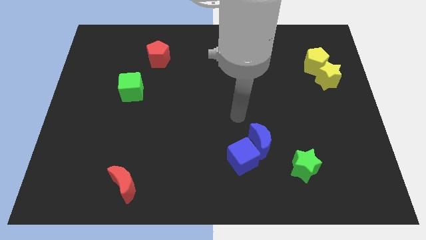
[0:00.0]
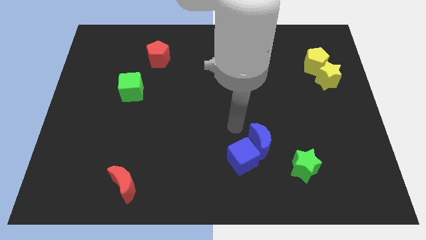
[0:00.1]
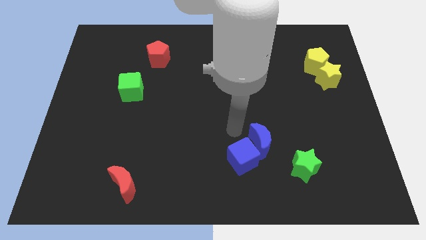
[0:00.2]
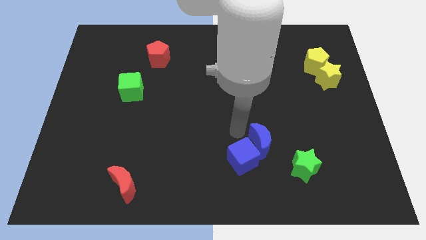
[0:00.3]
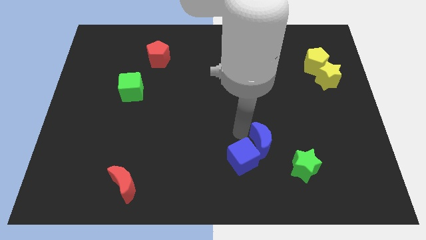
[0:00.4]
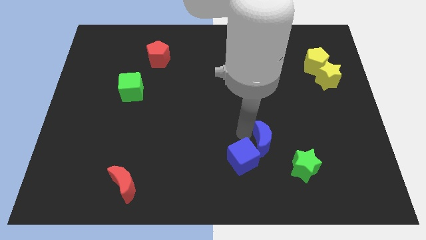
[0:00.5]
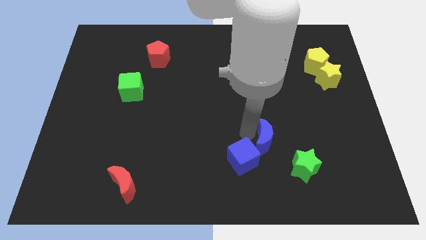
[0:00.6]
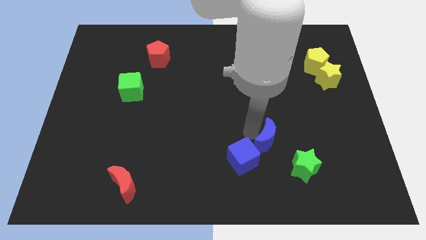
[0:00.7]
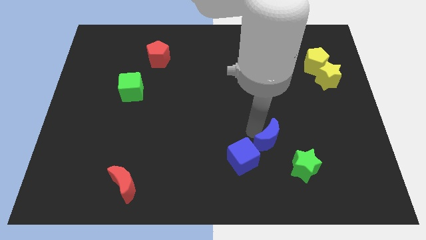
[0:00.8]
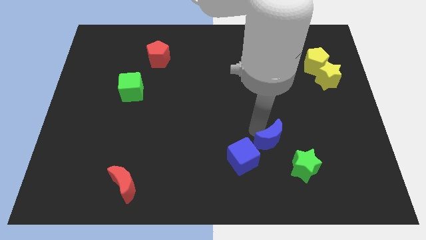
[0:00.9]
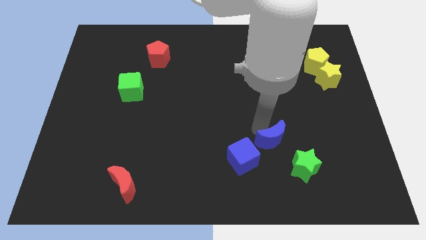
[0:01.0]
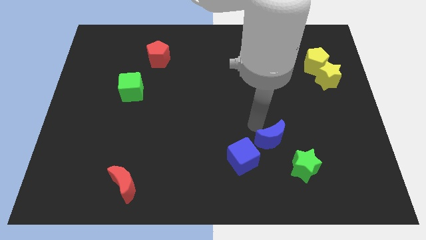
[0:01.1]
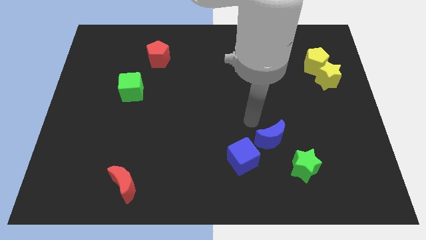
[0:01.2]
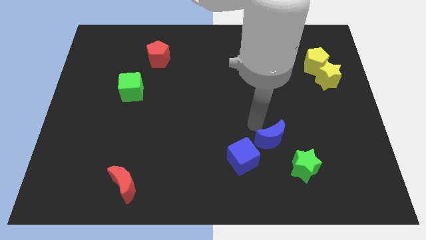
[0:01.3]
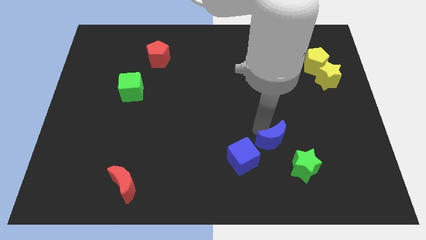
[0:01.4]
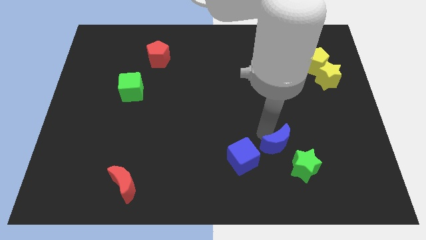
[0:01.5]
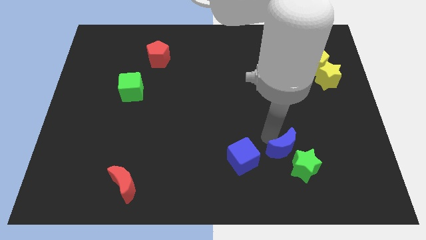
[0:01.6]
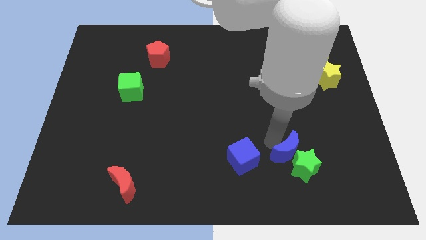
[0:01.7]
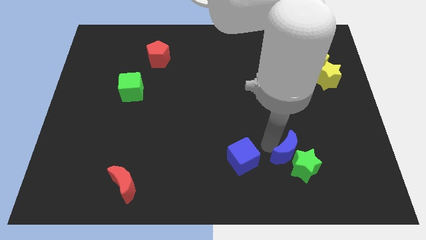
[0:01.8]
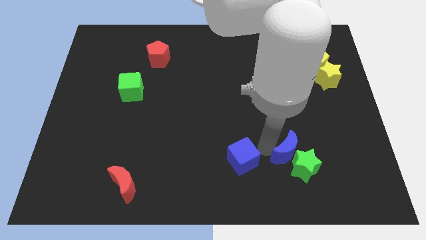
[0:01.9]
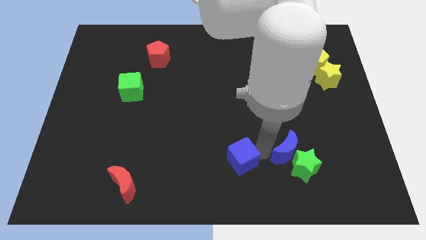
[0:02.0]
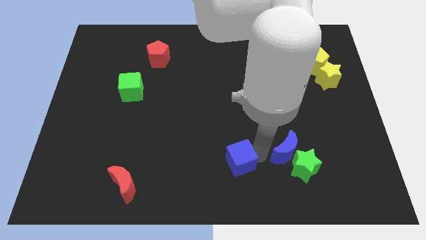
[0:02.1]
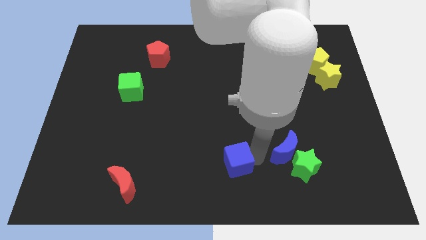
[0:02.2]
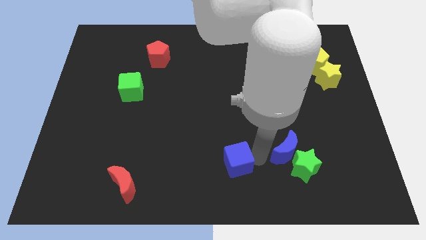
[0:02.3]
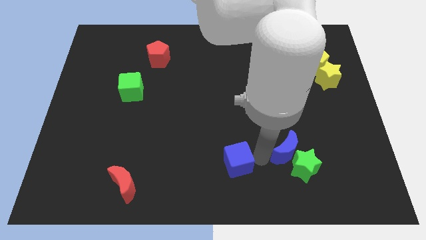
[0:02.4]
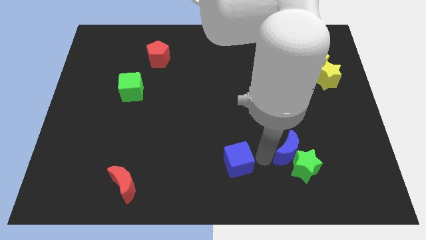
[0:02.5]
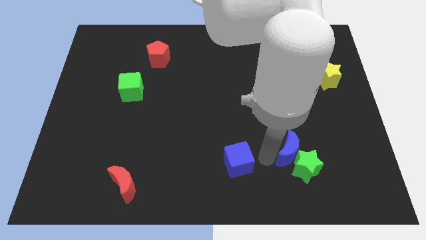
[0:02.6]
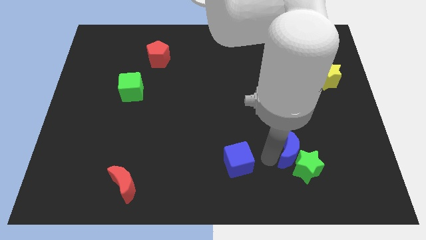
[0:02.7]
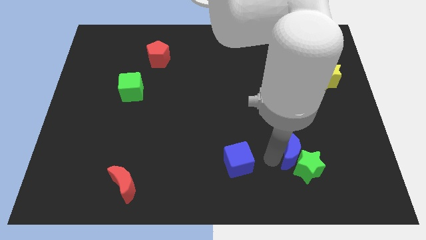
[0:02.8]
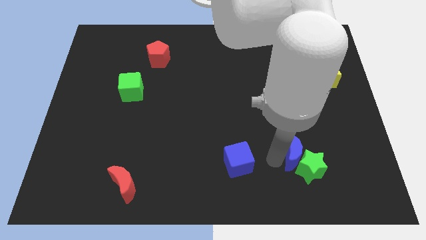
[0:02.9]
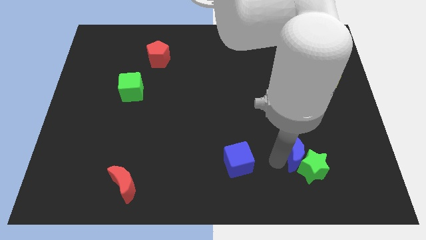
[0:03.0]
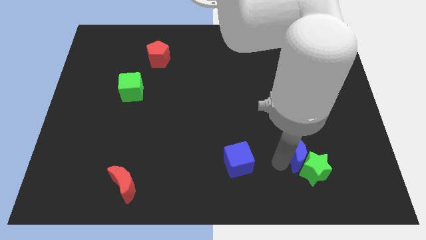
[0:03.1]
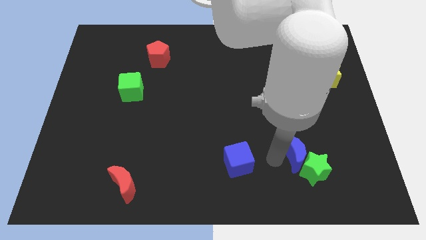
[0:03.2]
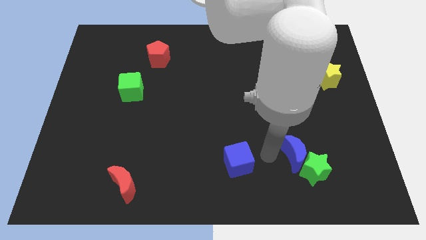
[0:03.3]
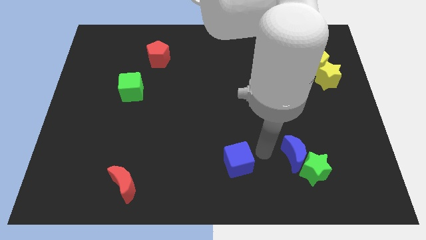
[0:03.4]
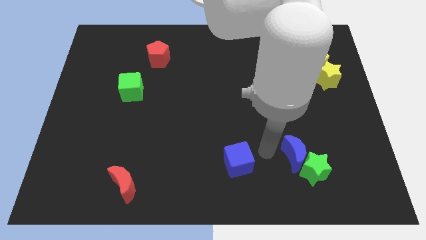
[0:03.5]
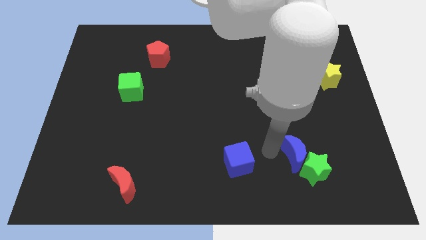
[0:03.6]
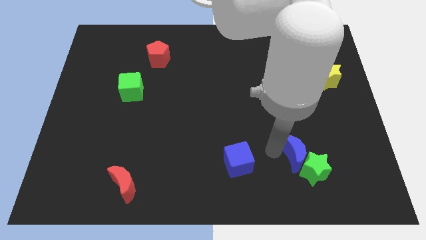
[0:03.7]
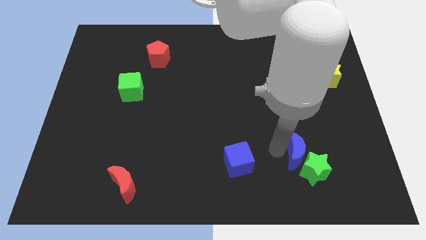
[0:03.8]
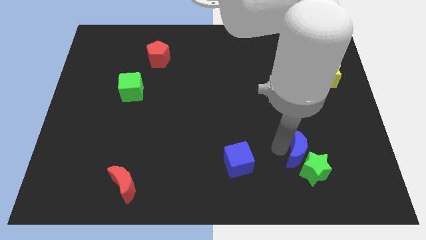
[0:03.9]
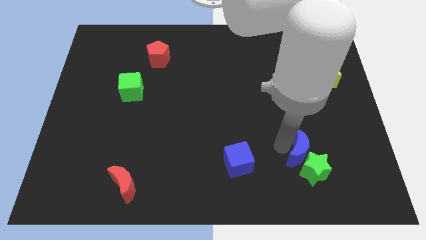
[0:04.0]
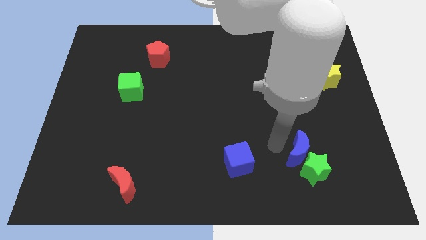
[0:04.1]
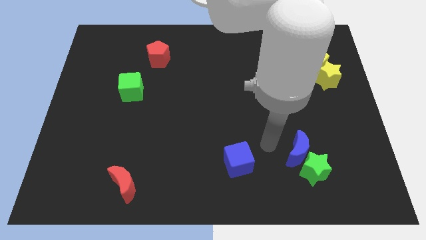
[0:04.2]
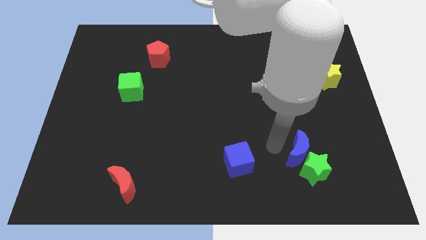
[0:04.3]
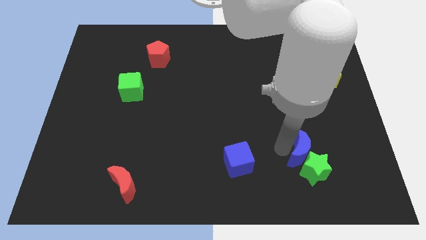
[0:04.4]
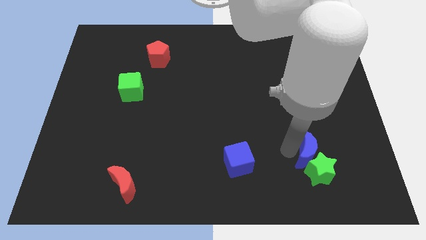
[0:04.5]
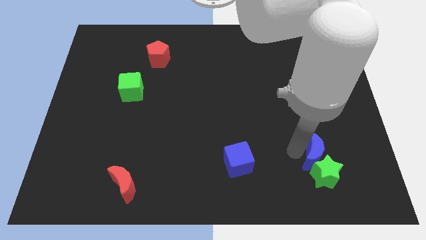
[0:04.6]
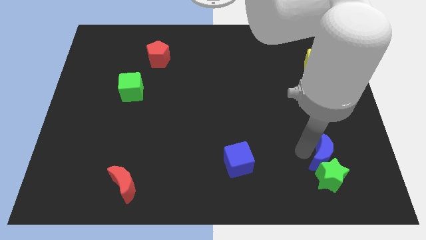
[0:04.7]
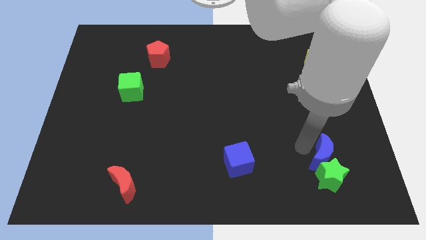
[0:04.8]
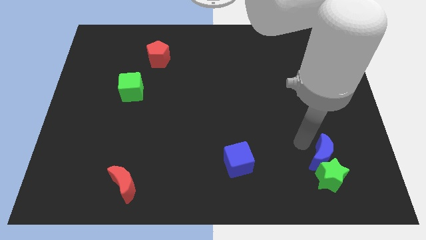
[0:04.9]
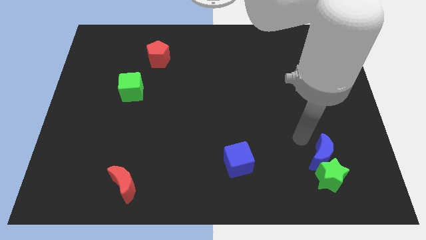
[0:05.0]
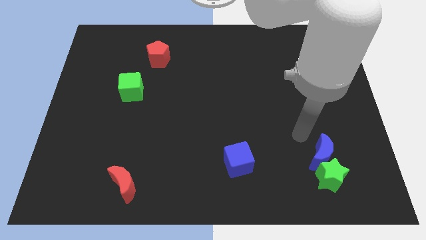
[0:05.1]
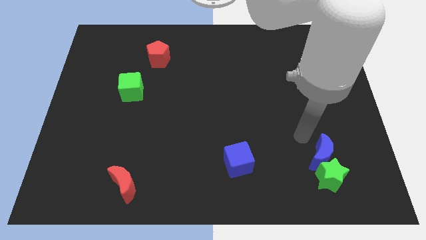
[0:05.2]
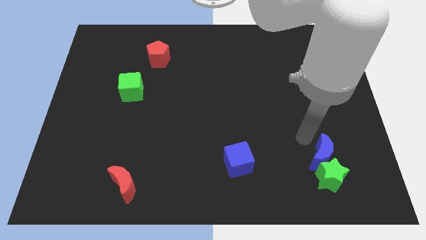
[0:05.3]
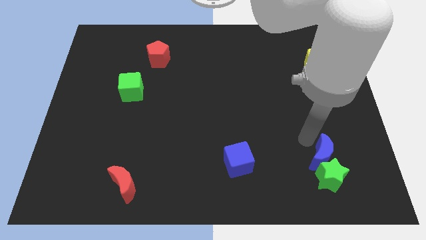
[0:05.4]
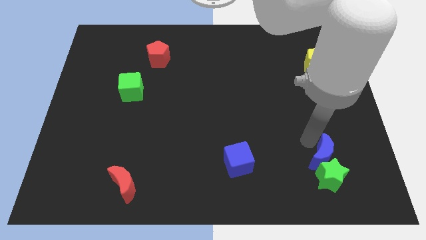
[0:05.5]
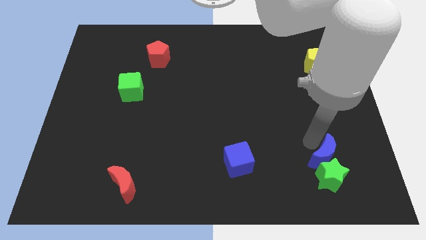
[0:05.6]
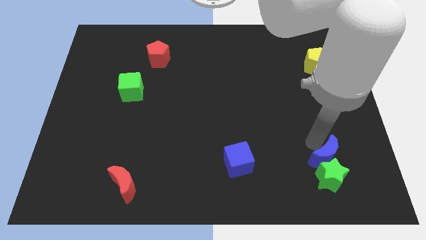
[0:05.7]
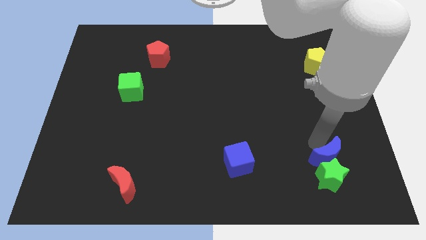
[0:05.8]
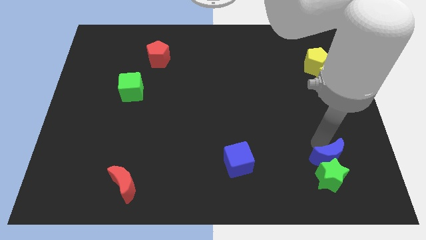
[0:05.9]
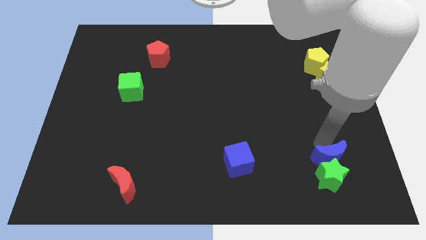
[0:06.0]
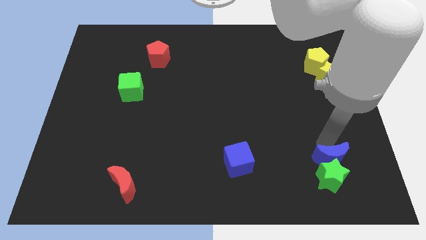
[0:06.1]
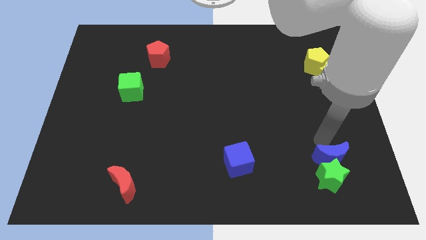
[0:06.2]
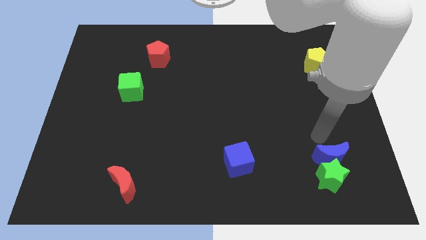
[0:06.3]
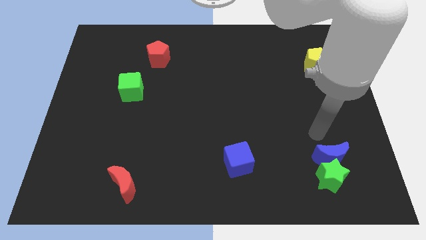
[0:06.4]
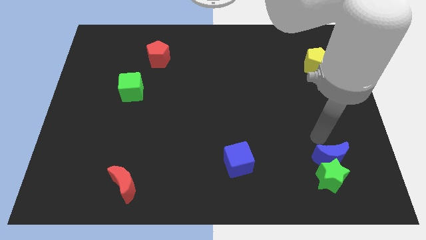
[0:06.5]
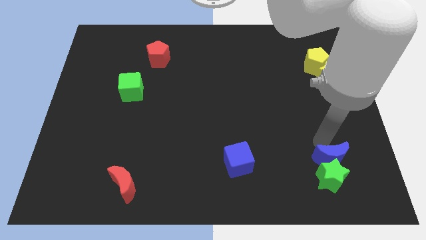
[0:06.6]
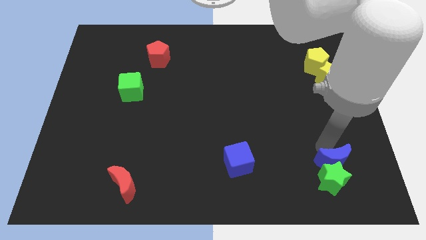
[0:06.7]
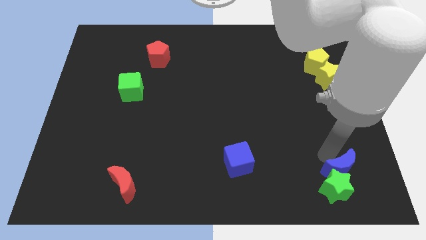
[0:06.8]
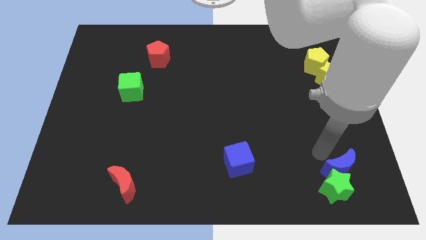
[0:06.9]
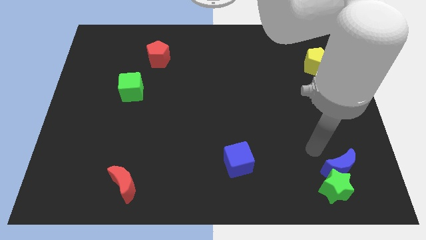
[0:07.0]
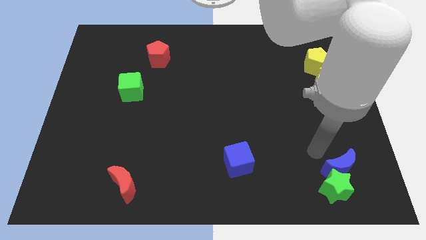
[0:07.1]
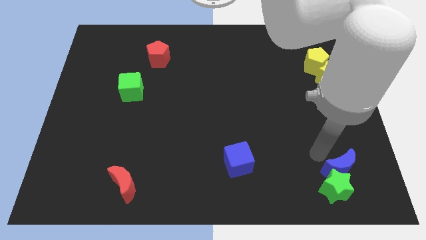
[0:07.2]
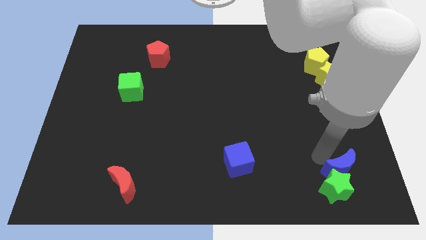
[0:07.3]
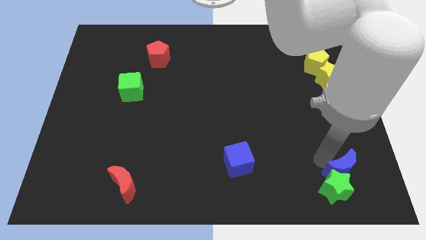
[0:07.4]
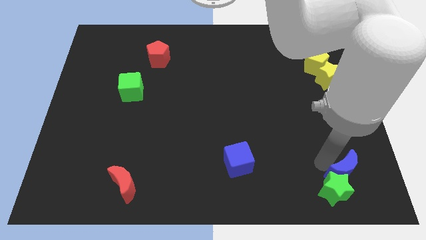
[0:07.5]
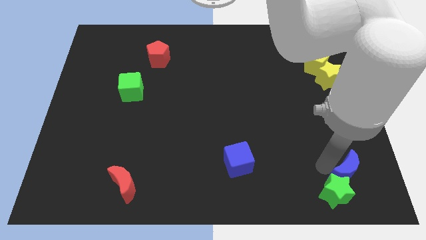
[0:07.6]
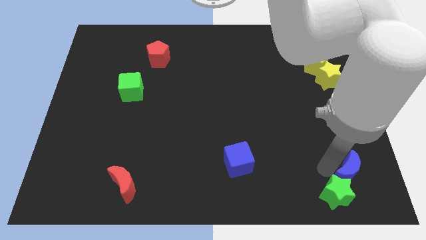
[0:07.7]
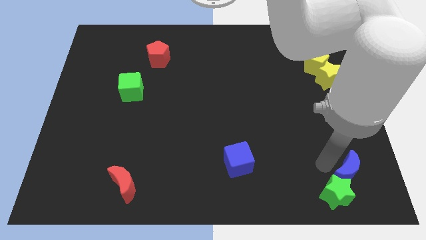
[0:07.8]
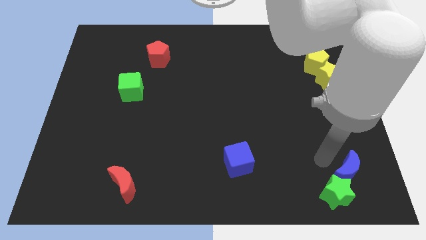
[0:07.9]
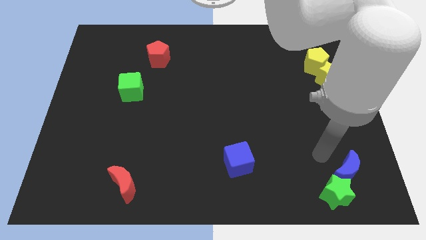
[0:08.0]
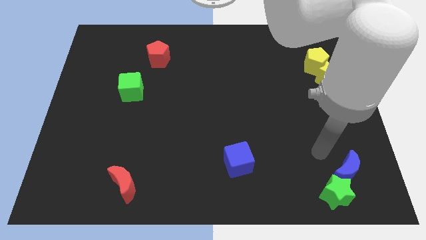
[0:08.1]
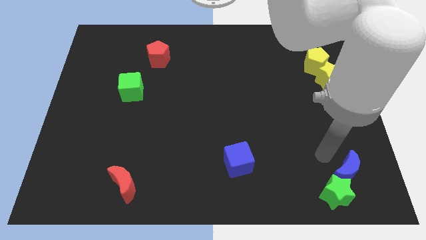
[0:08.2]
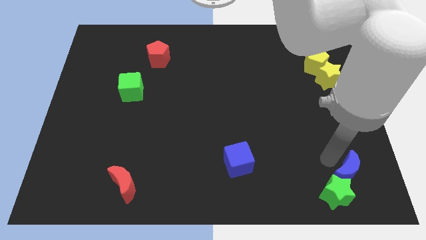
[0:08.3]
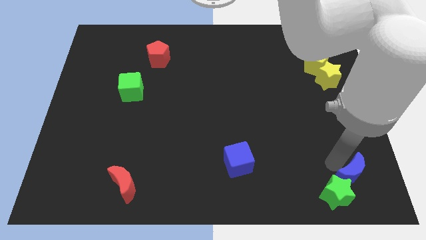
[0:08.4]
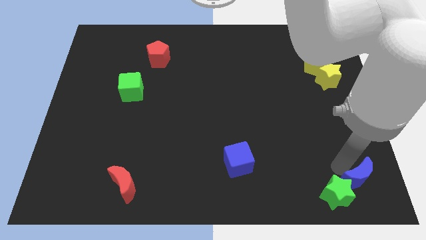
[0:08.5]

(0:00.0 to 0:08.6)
push the blue moon to the bottom right of the board
